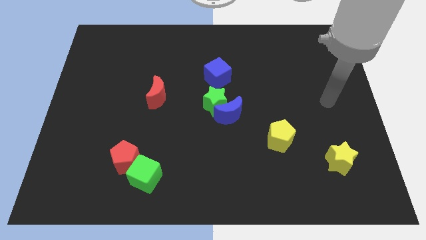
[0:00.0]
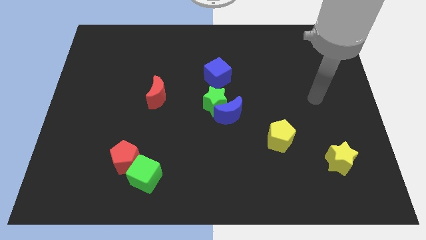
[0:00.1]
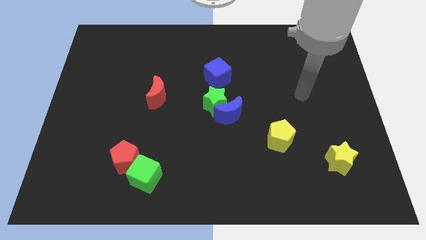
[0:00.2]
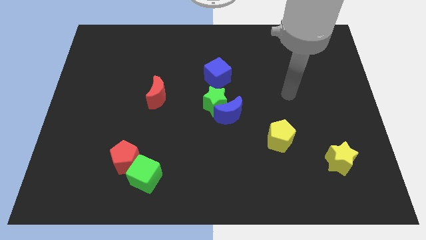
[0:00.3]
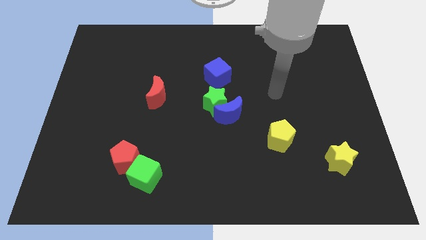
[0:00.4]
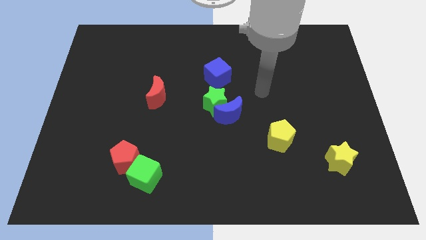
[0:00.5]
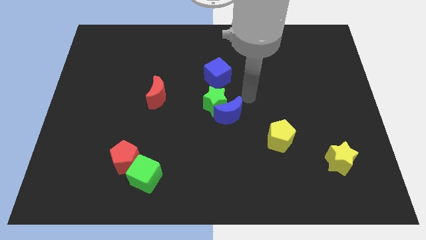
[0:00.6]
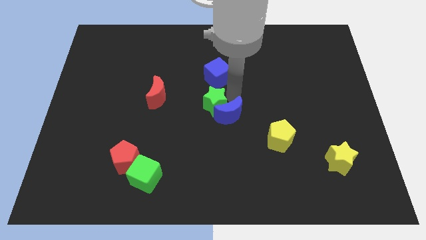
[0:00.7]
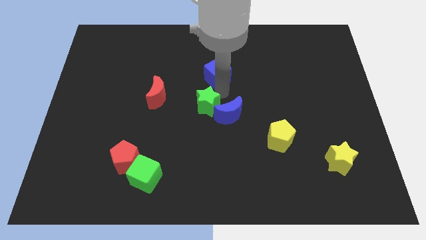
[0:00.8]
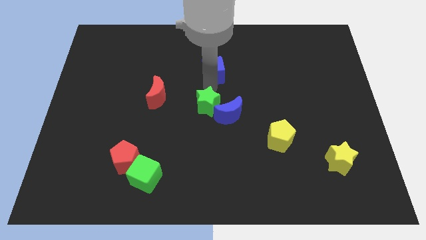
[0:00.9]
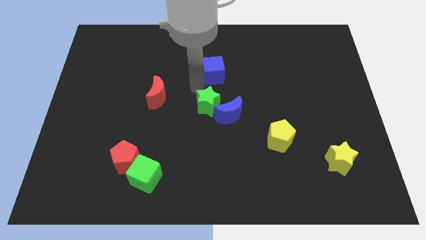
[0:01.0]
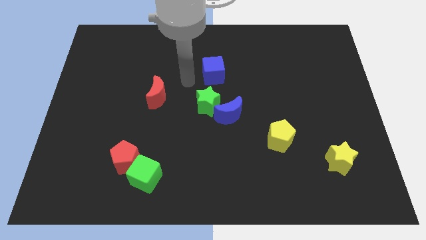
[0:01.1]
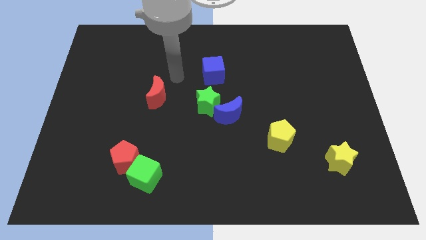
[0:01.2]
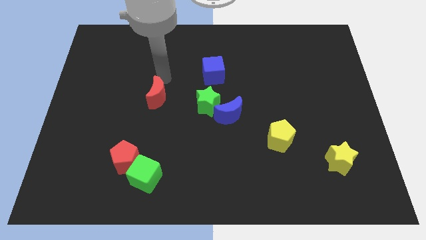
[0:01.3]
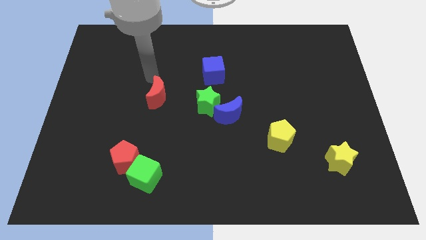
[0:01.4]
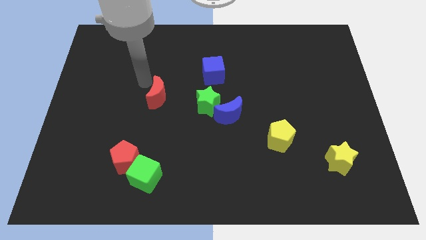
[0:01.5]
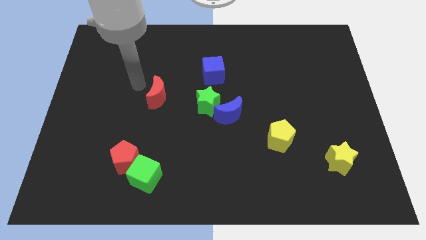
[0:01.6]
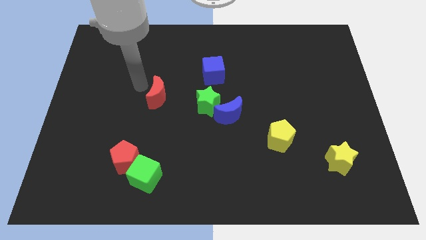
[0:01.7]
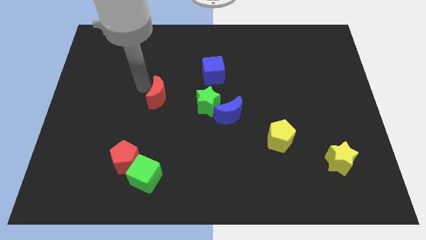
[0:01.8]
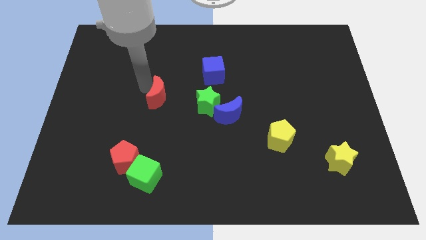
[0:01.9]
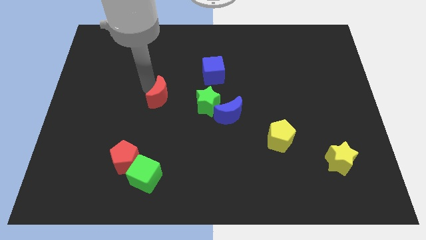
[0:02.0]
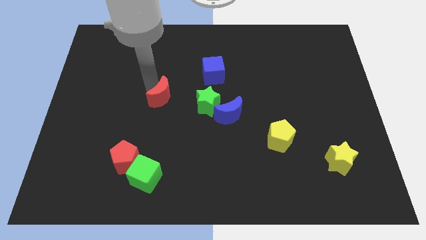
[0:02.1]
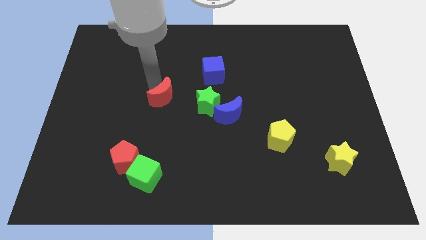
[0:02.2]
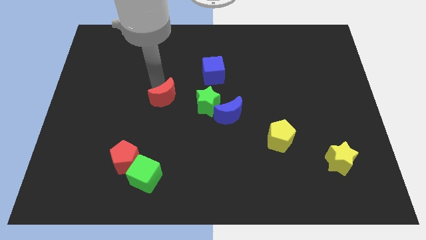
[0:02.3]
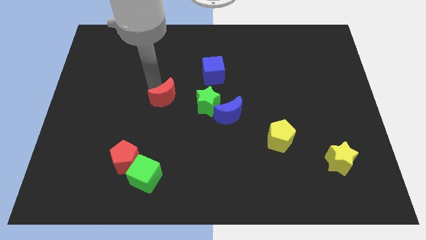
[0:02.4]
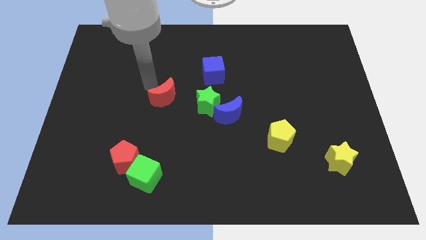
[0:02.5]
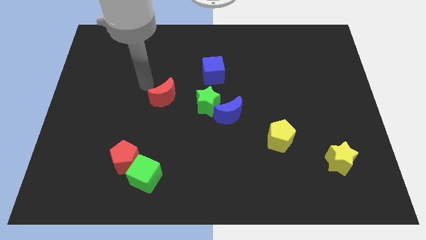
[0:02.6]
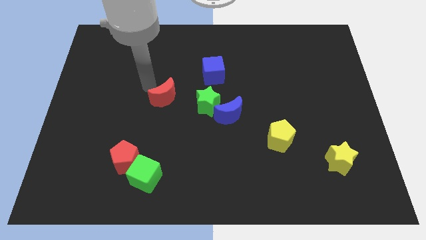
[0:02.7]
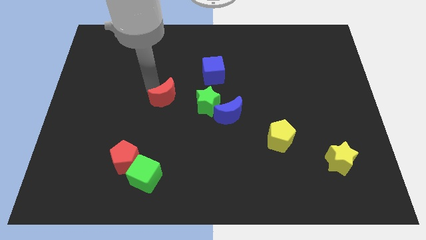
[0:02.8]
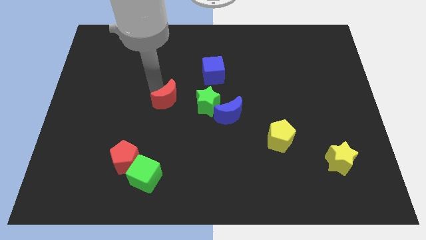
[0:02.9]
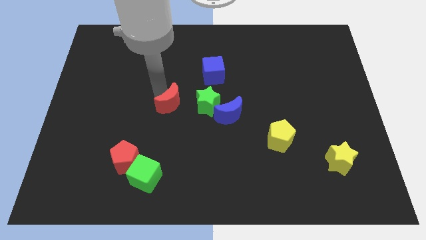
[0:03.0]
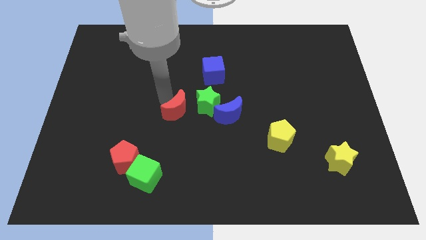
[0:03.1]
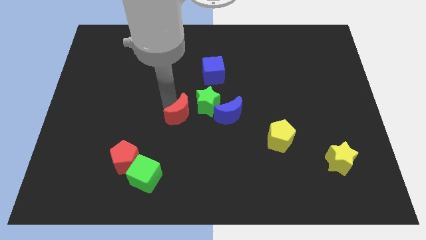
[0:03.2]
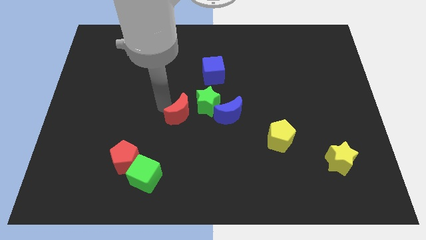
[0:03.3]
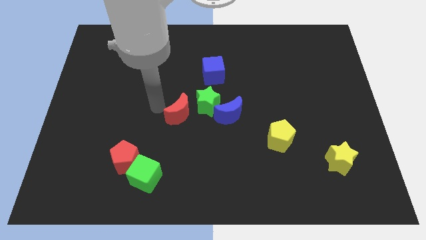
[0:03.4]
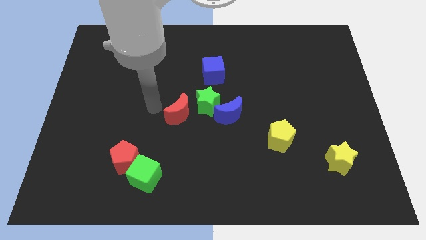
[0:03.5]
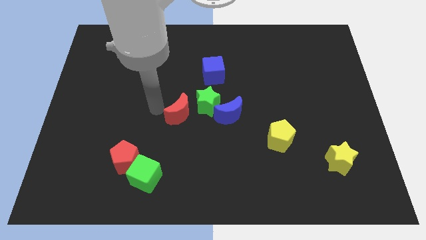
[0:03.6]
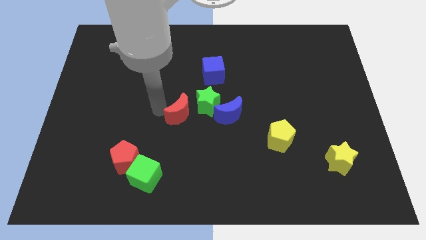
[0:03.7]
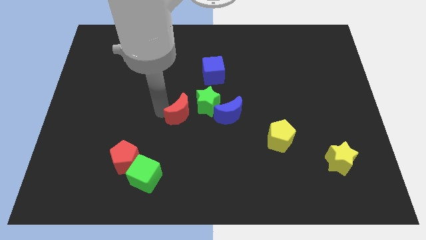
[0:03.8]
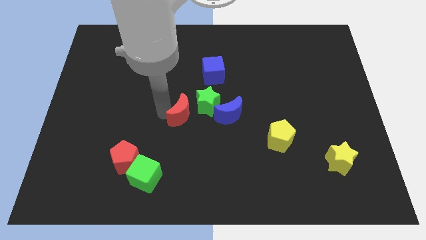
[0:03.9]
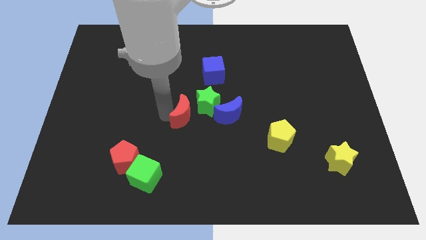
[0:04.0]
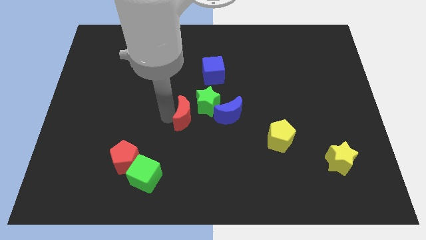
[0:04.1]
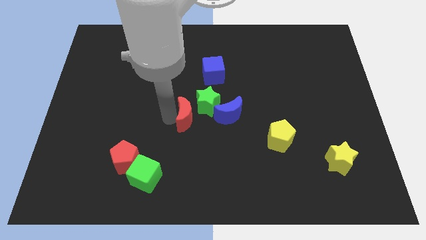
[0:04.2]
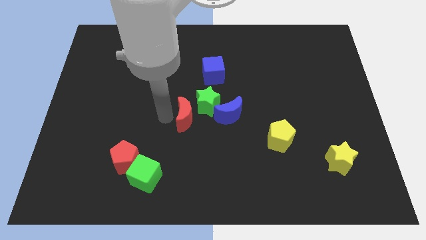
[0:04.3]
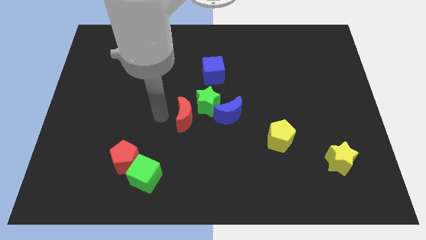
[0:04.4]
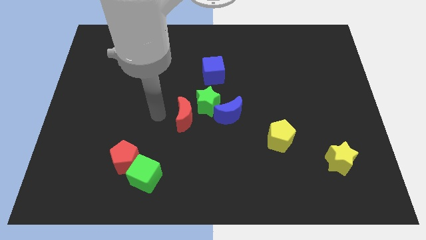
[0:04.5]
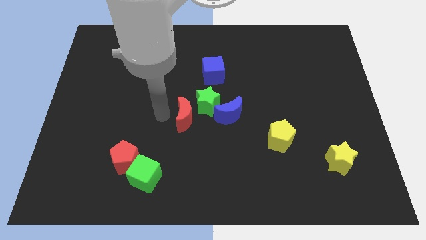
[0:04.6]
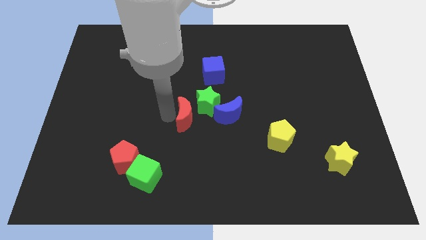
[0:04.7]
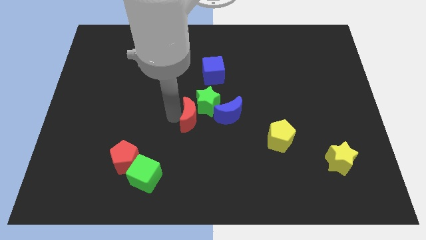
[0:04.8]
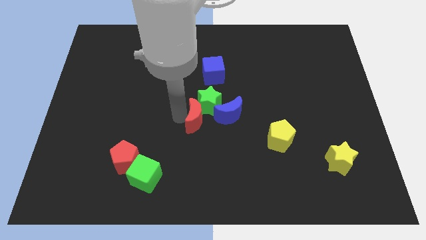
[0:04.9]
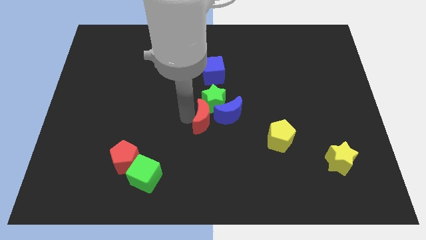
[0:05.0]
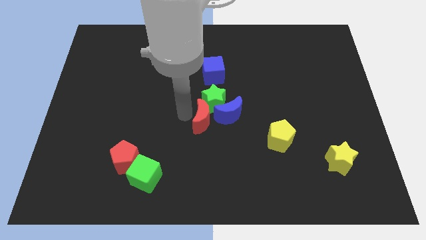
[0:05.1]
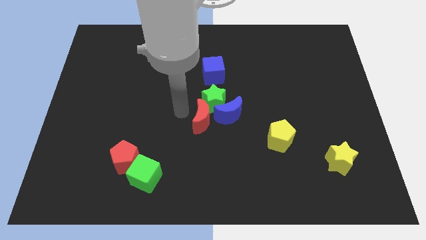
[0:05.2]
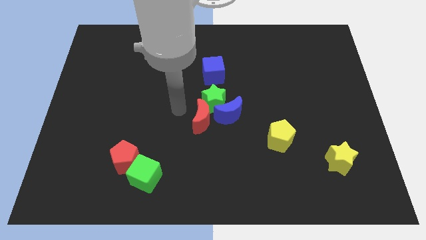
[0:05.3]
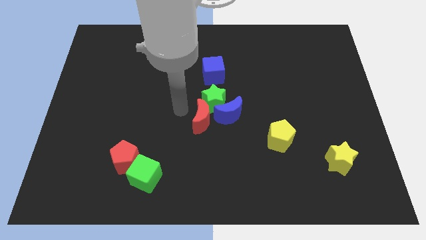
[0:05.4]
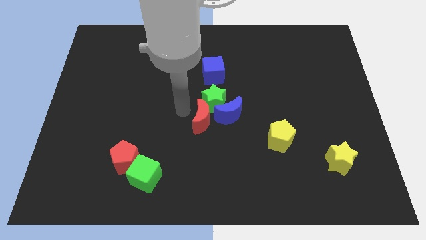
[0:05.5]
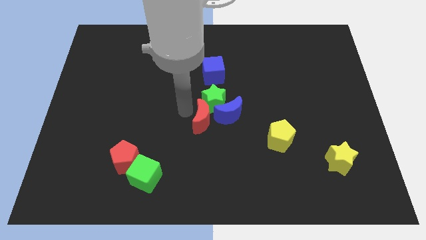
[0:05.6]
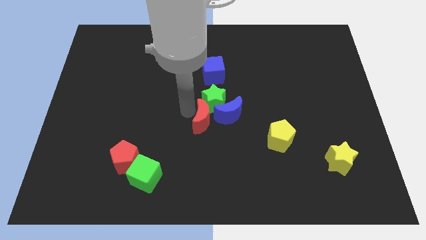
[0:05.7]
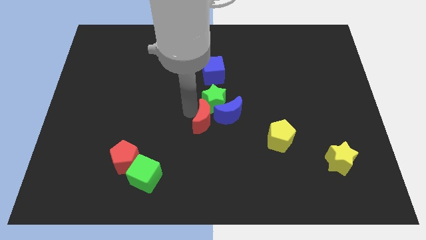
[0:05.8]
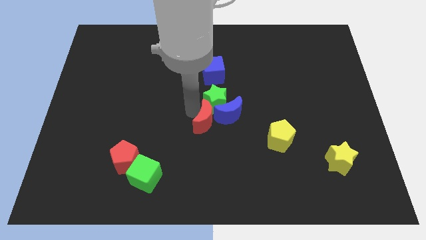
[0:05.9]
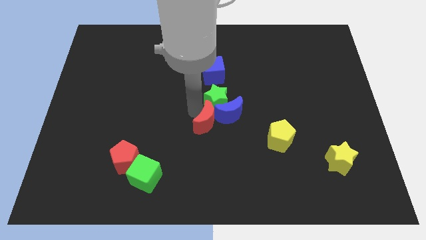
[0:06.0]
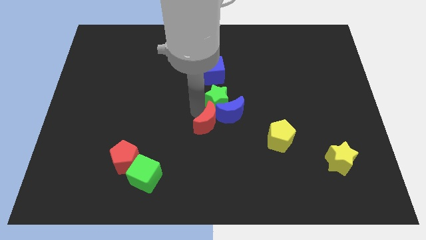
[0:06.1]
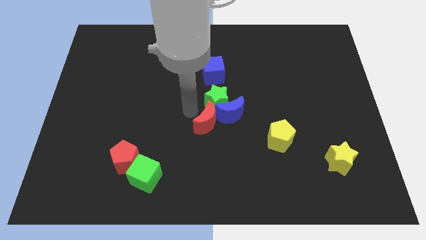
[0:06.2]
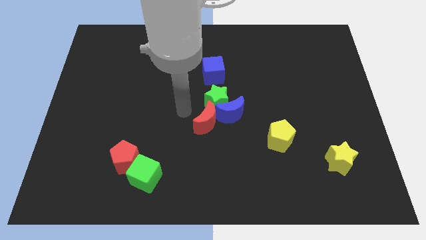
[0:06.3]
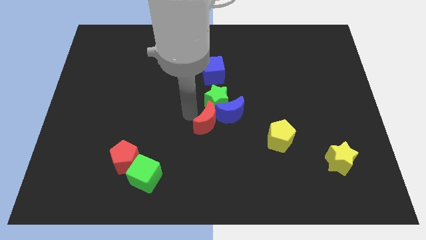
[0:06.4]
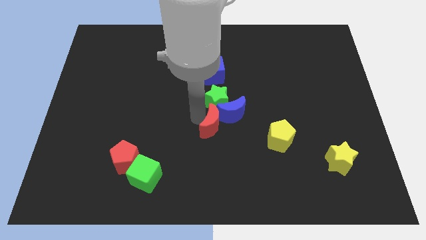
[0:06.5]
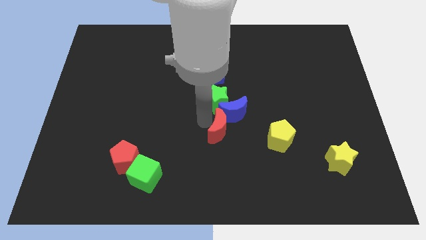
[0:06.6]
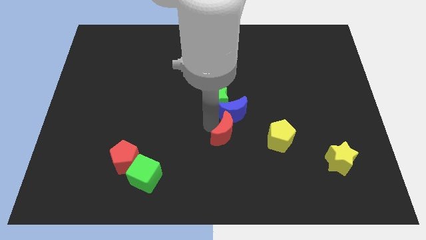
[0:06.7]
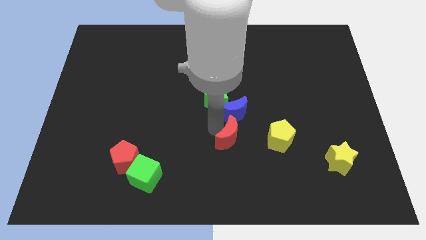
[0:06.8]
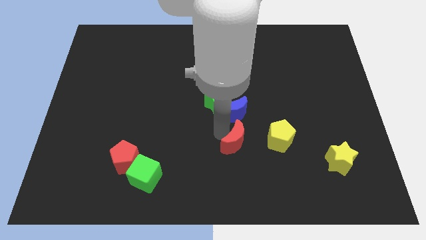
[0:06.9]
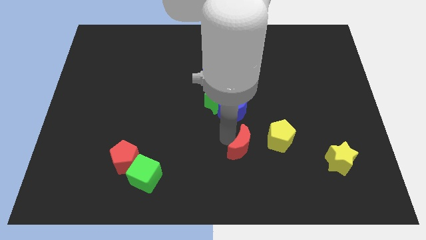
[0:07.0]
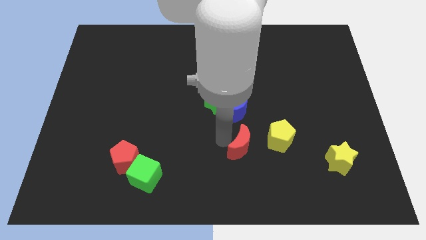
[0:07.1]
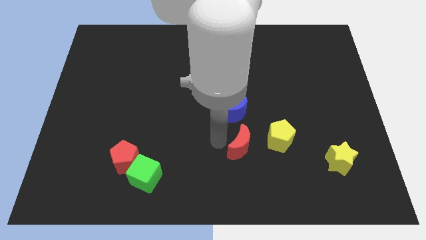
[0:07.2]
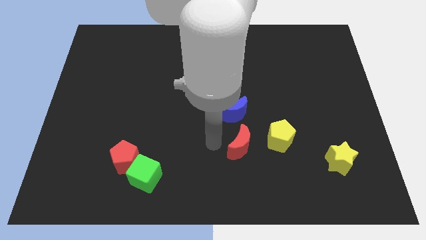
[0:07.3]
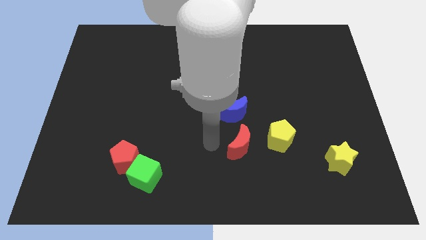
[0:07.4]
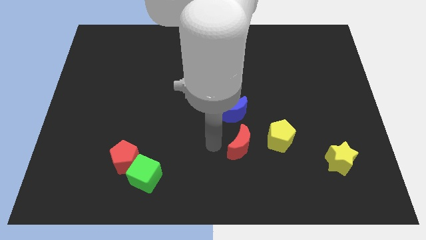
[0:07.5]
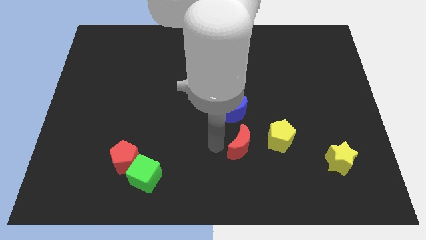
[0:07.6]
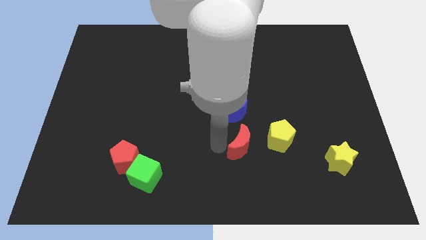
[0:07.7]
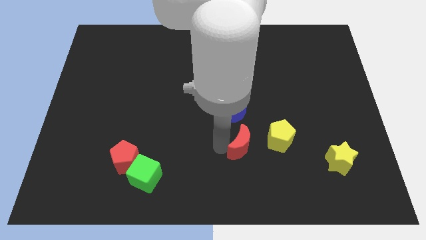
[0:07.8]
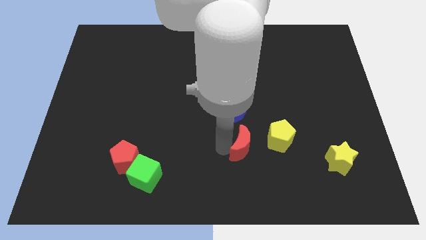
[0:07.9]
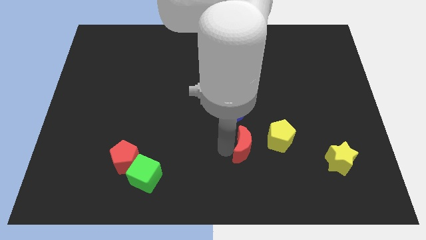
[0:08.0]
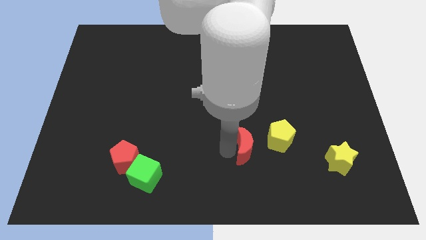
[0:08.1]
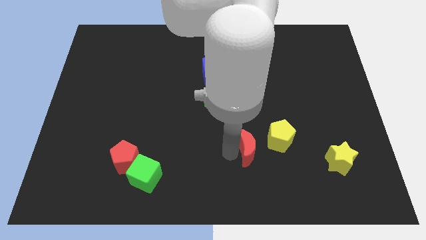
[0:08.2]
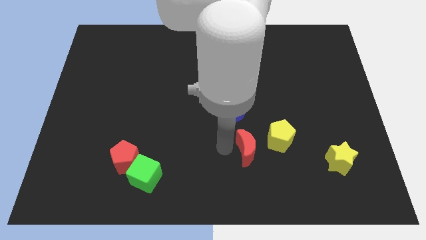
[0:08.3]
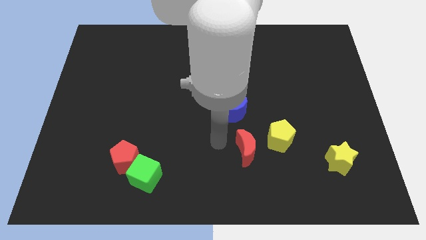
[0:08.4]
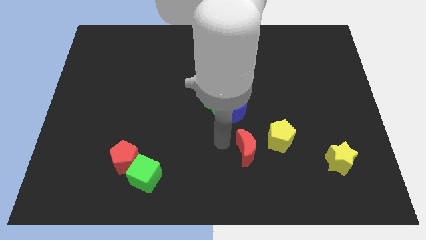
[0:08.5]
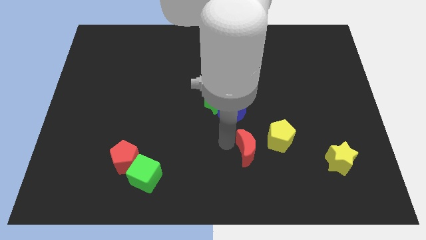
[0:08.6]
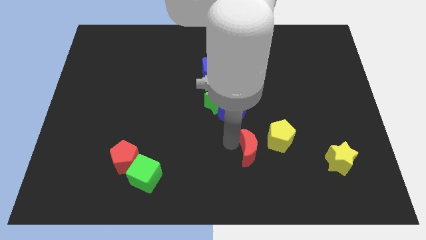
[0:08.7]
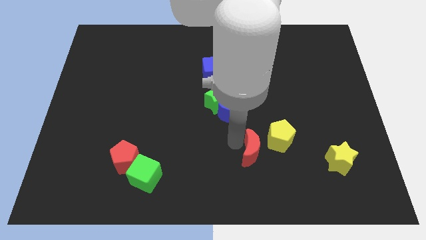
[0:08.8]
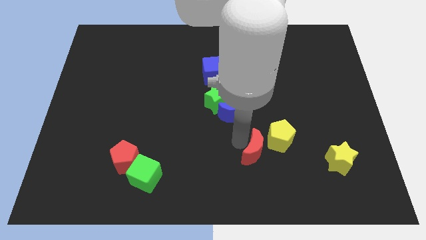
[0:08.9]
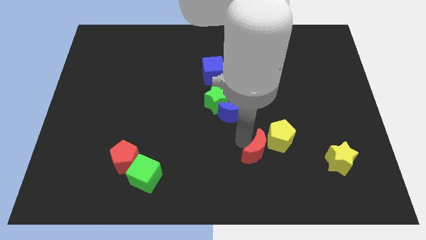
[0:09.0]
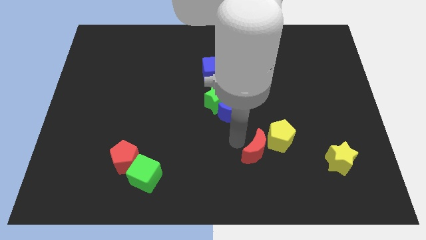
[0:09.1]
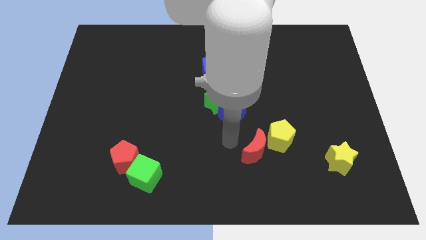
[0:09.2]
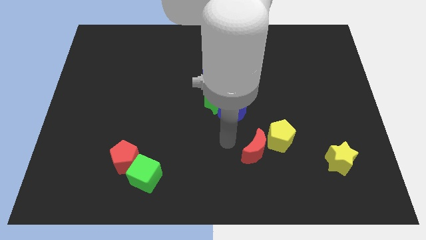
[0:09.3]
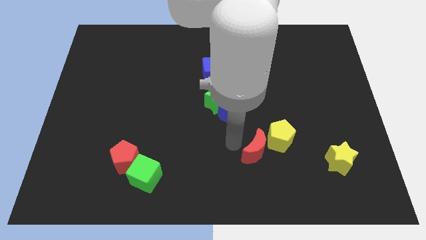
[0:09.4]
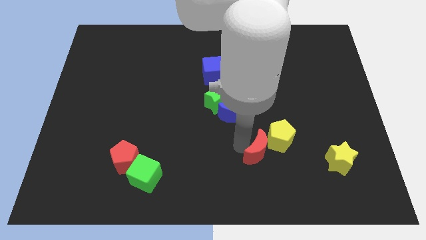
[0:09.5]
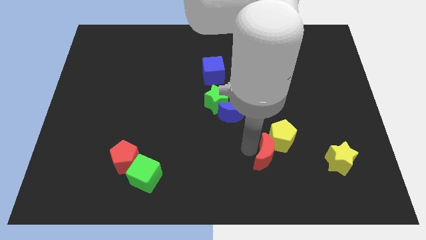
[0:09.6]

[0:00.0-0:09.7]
push the red moon just left of the yellow star
